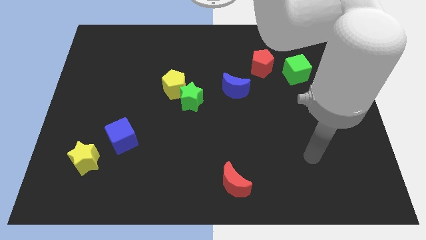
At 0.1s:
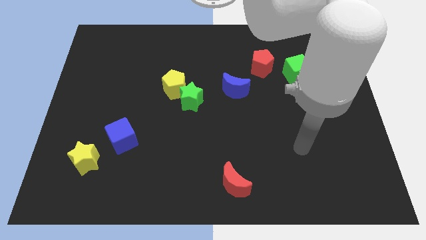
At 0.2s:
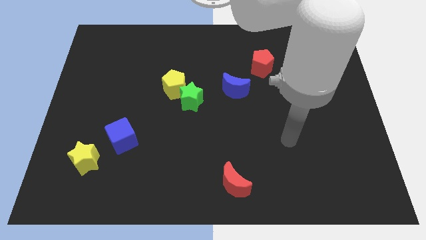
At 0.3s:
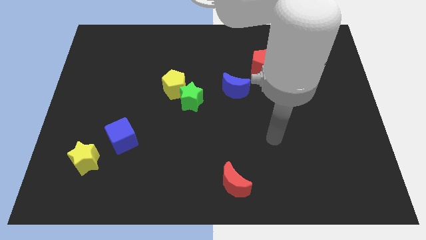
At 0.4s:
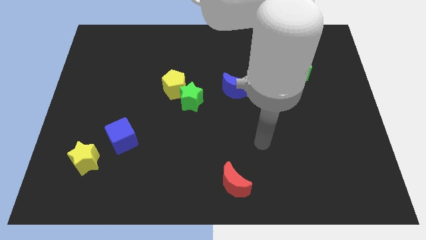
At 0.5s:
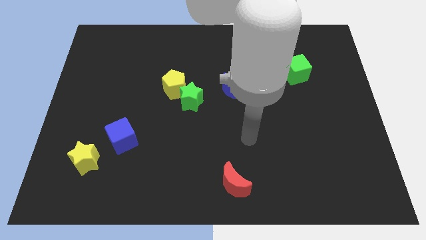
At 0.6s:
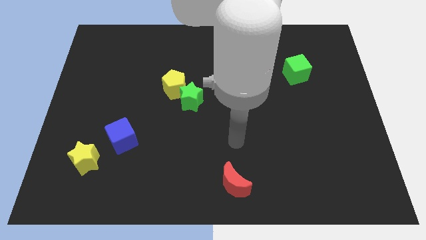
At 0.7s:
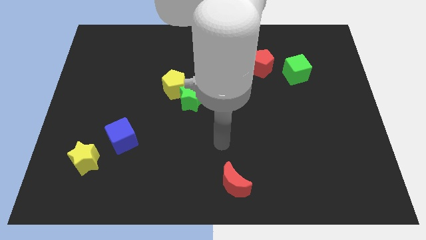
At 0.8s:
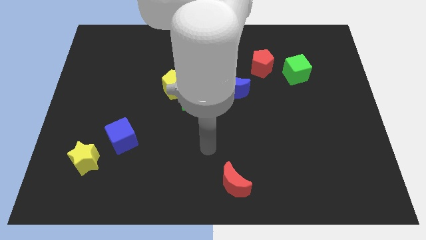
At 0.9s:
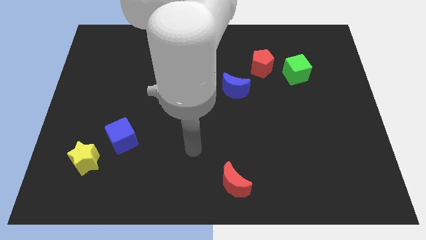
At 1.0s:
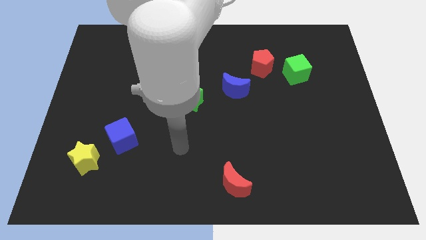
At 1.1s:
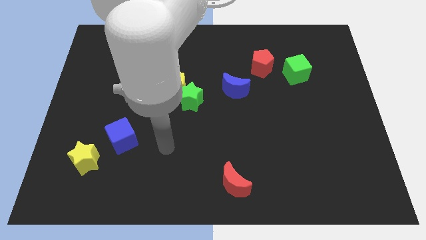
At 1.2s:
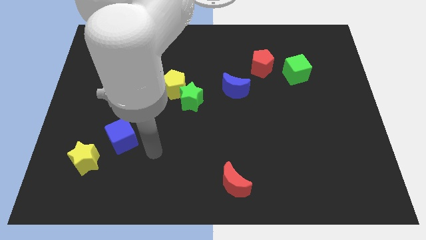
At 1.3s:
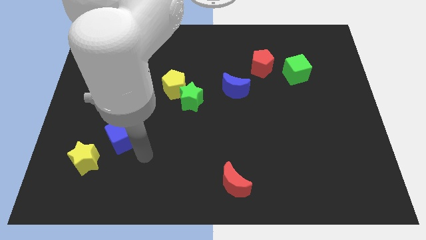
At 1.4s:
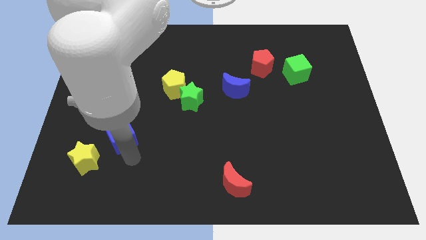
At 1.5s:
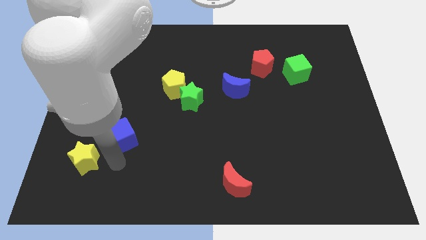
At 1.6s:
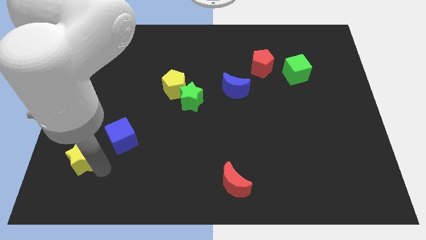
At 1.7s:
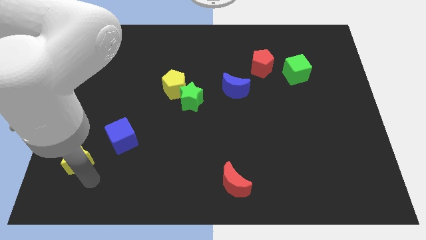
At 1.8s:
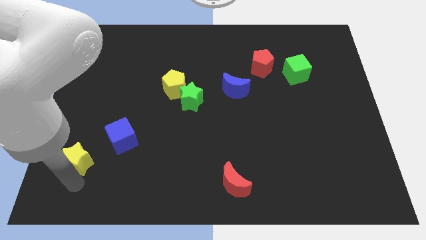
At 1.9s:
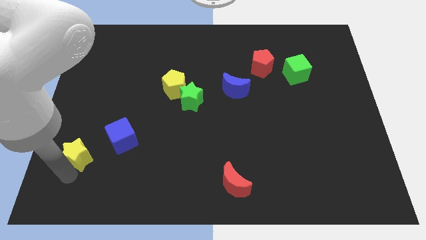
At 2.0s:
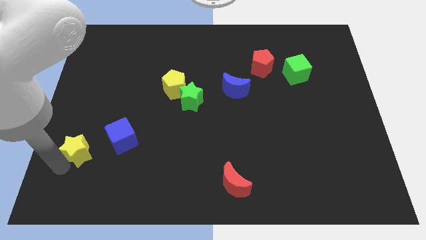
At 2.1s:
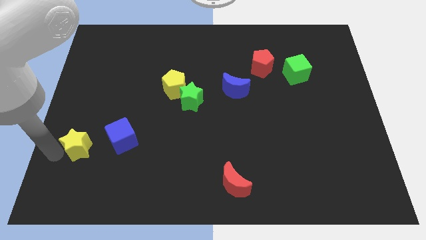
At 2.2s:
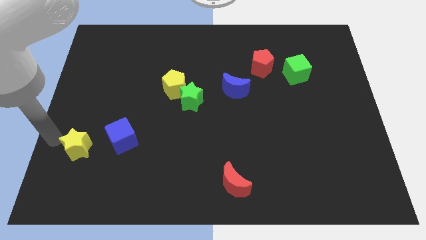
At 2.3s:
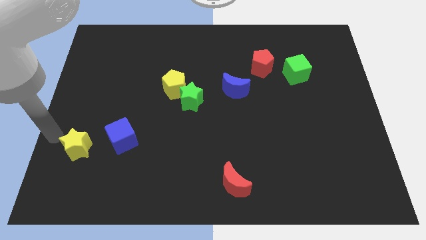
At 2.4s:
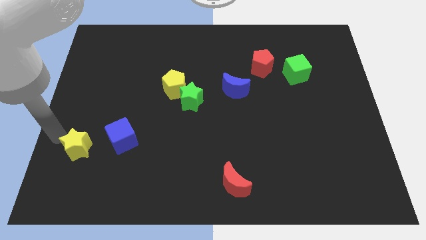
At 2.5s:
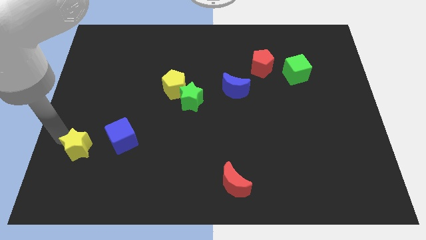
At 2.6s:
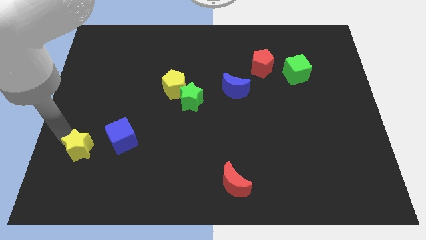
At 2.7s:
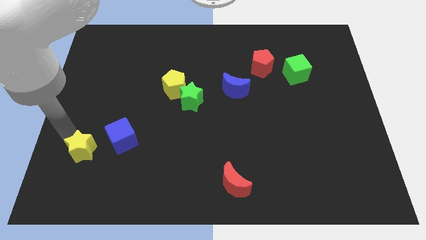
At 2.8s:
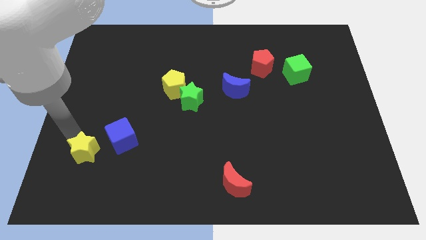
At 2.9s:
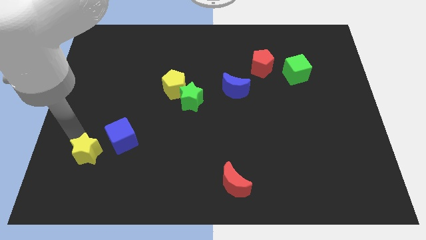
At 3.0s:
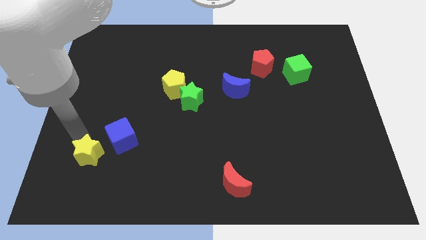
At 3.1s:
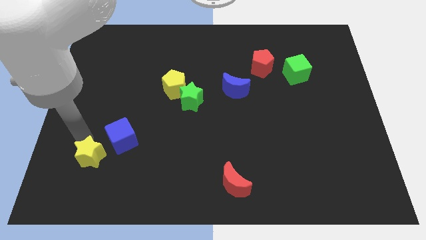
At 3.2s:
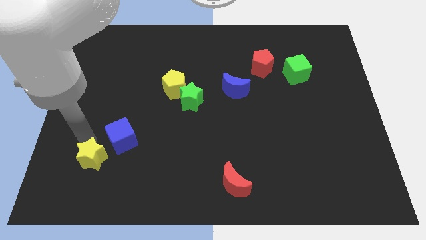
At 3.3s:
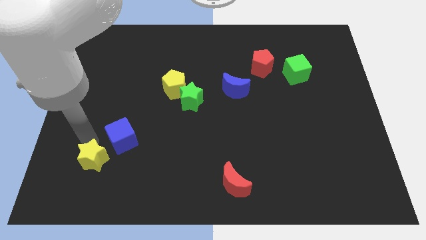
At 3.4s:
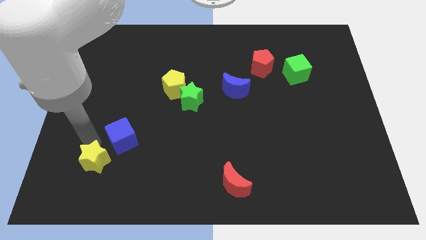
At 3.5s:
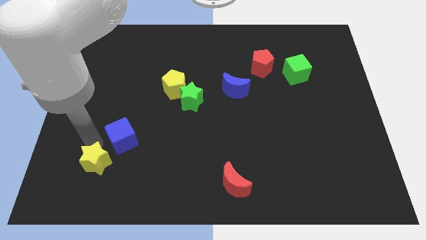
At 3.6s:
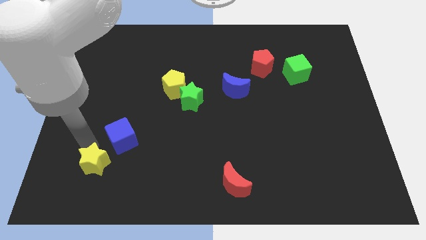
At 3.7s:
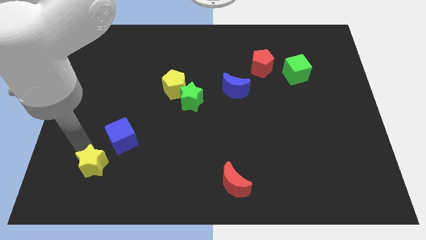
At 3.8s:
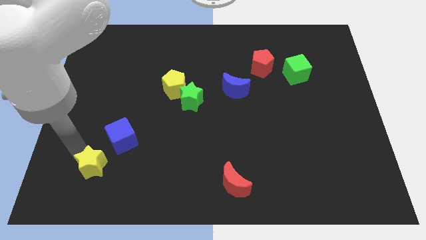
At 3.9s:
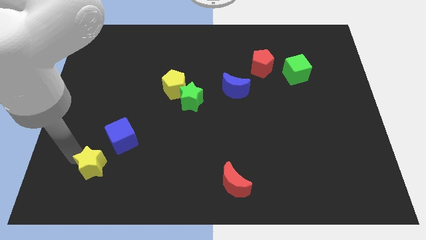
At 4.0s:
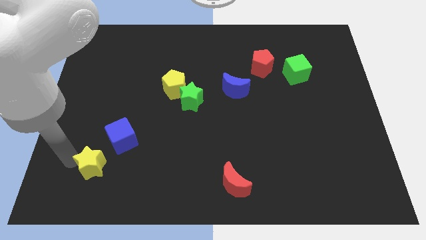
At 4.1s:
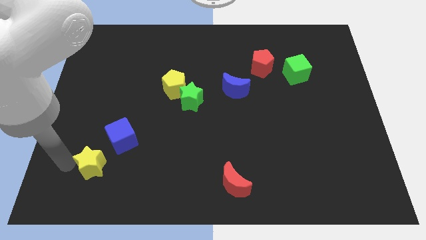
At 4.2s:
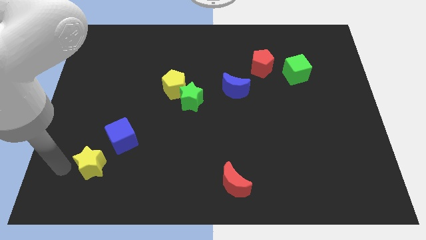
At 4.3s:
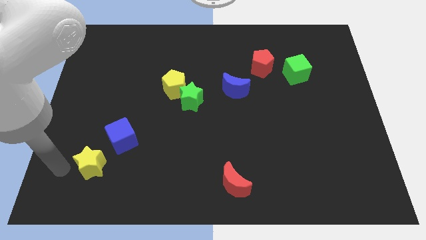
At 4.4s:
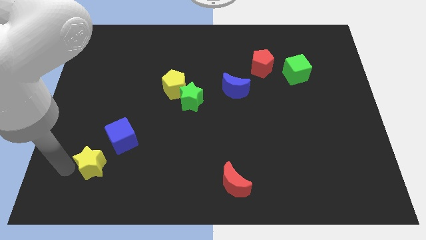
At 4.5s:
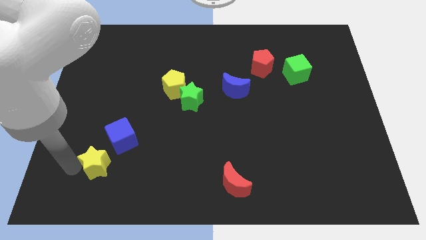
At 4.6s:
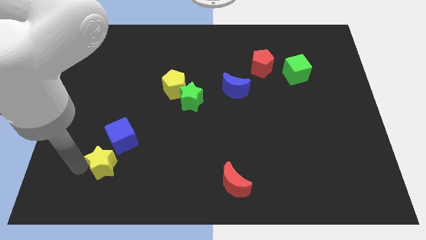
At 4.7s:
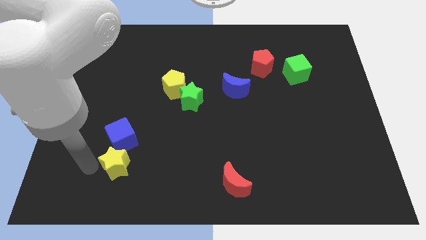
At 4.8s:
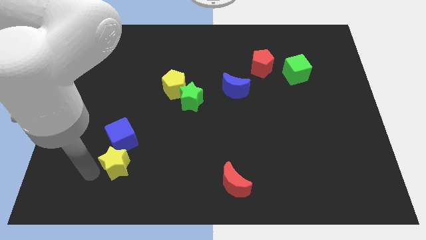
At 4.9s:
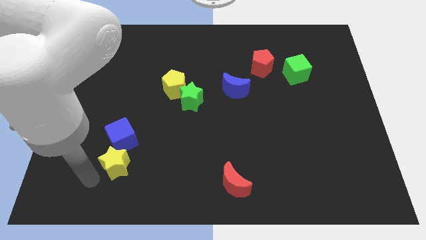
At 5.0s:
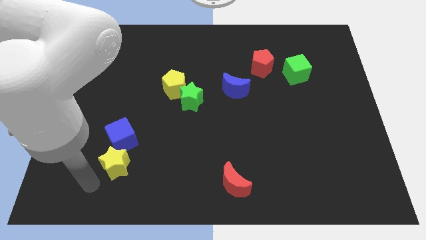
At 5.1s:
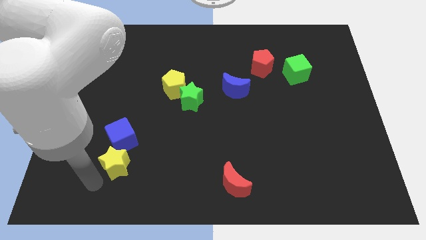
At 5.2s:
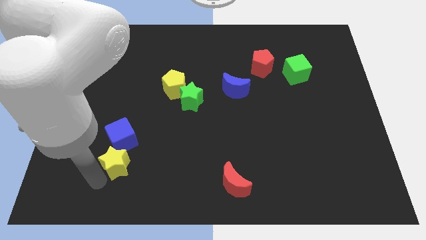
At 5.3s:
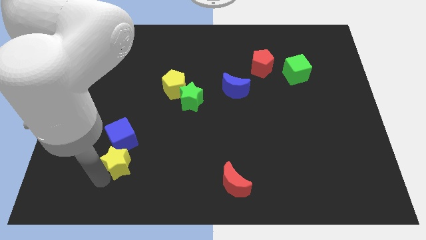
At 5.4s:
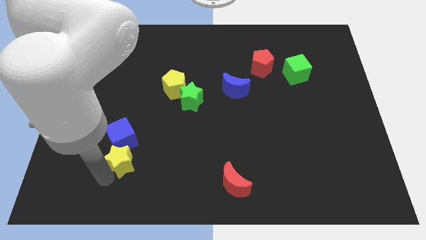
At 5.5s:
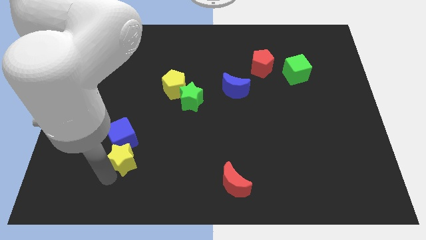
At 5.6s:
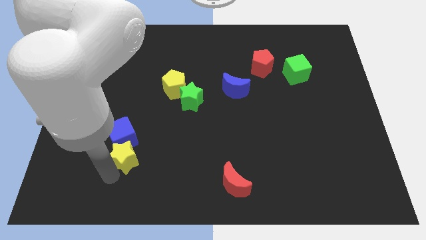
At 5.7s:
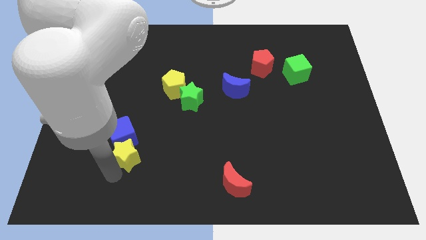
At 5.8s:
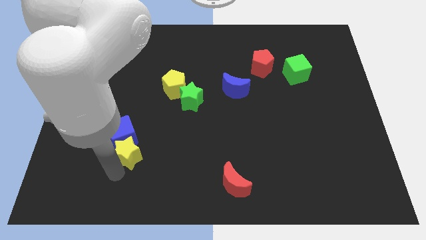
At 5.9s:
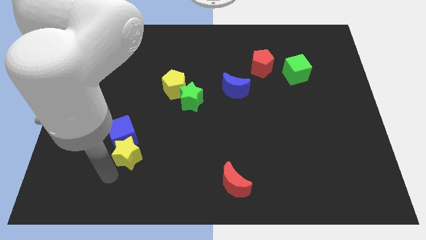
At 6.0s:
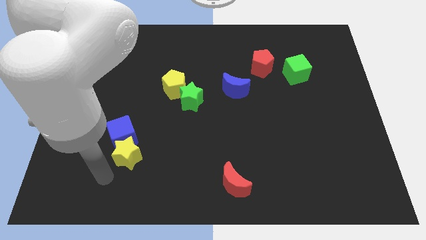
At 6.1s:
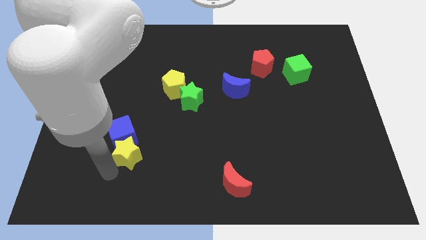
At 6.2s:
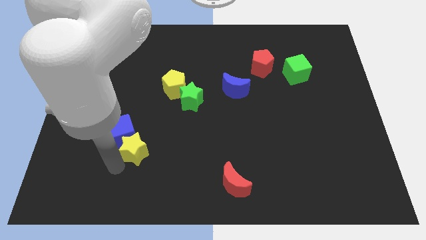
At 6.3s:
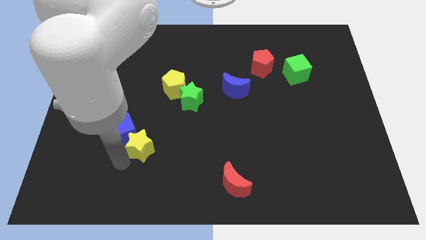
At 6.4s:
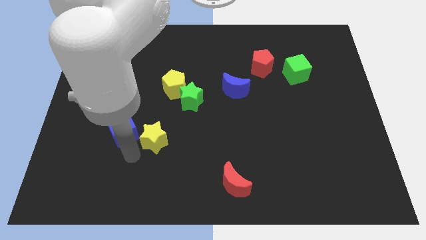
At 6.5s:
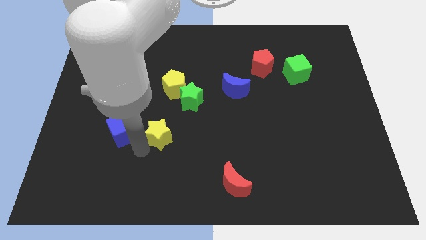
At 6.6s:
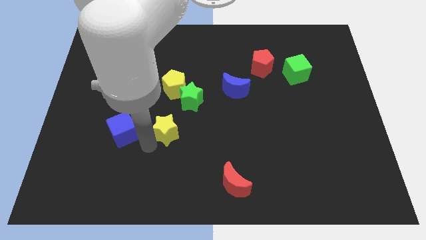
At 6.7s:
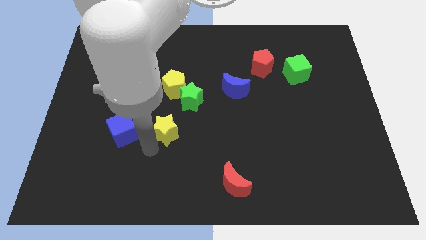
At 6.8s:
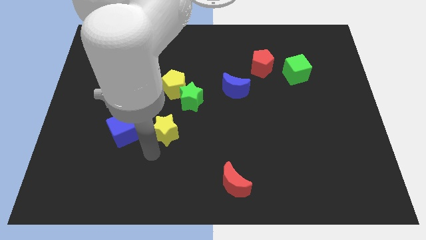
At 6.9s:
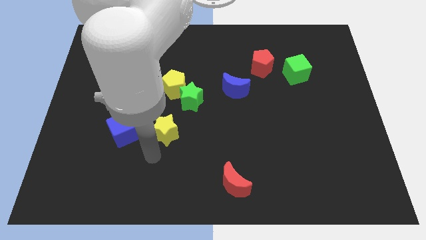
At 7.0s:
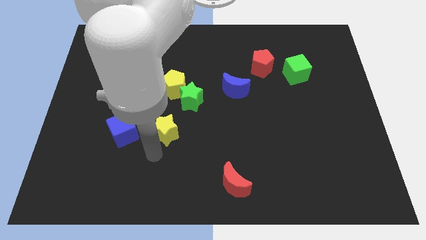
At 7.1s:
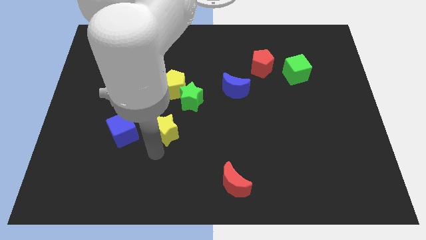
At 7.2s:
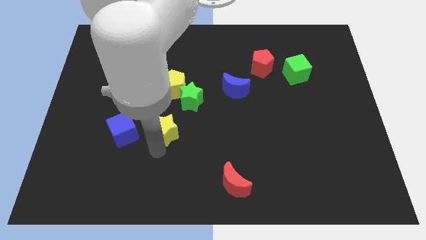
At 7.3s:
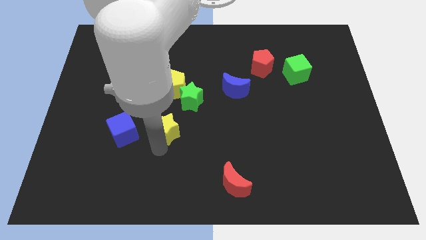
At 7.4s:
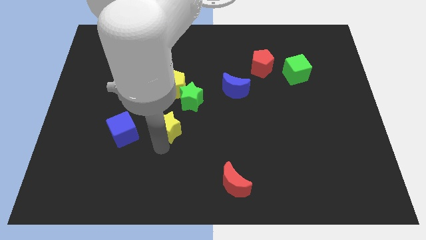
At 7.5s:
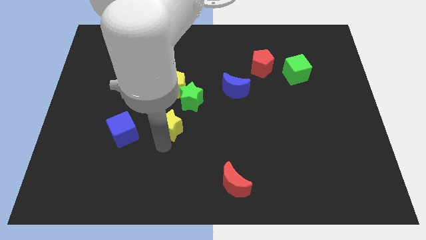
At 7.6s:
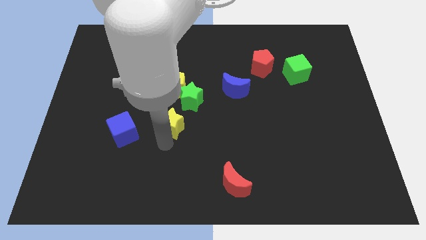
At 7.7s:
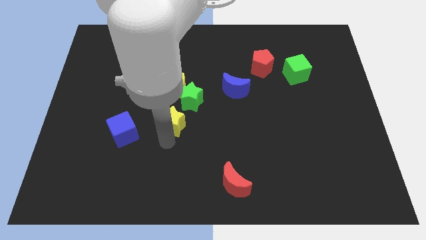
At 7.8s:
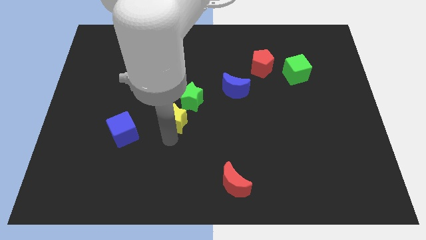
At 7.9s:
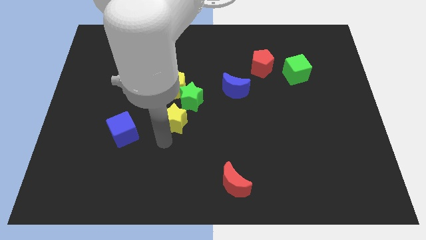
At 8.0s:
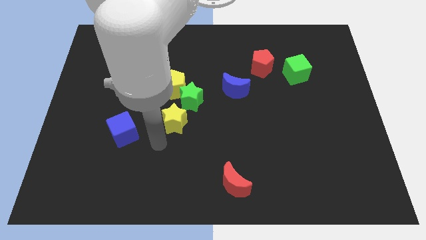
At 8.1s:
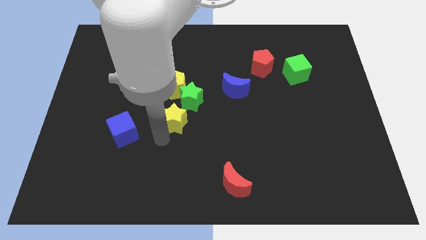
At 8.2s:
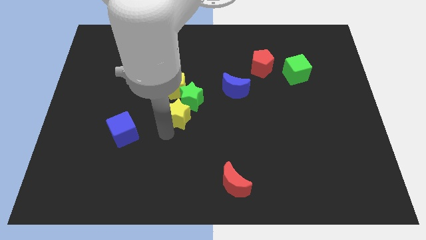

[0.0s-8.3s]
move the yellow star close to the green star
